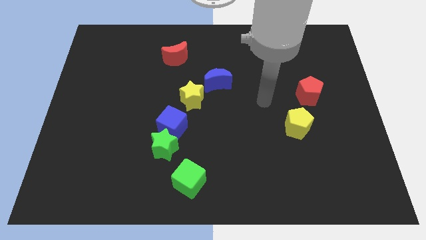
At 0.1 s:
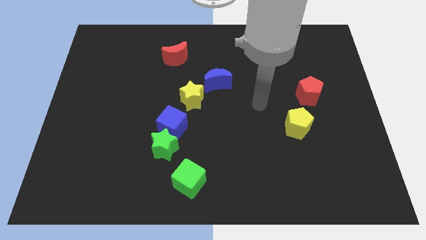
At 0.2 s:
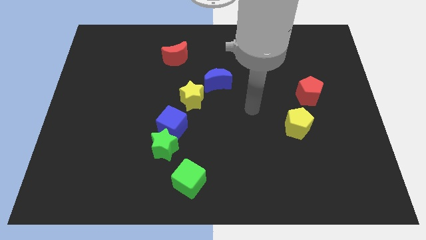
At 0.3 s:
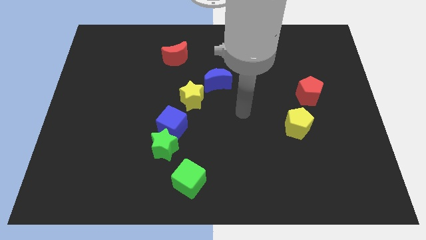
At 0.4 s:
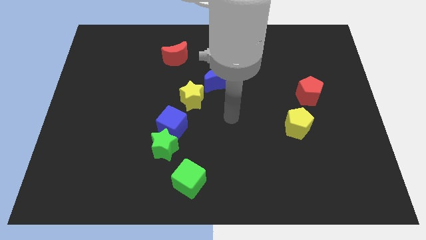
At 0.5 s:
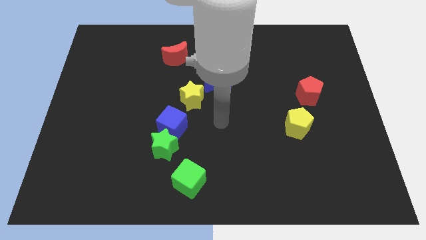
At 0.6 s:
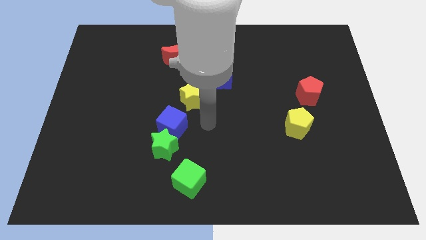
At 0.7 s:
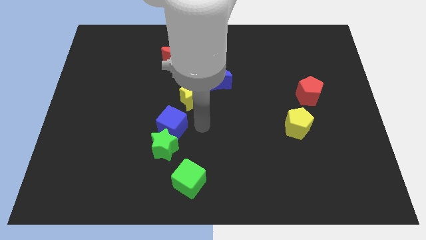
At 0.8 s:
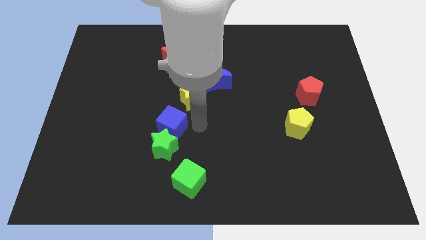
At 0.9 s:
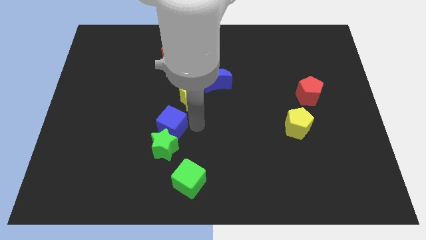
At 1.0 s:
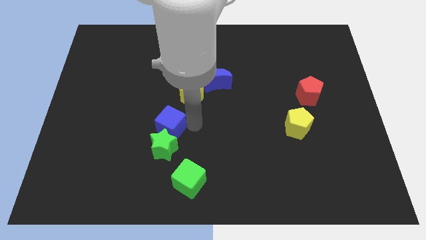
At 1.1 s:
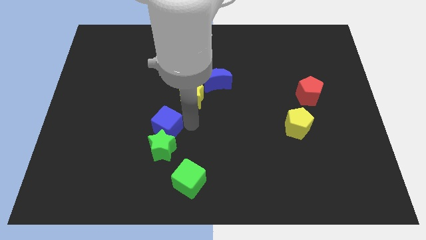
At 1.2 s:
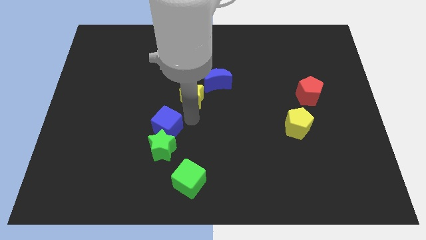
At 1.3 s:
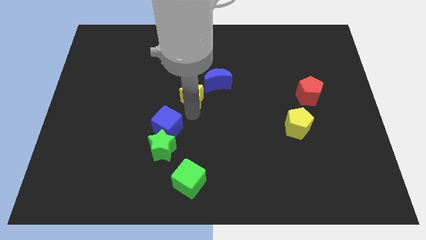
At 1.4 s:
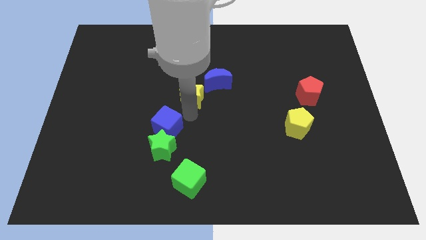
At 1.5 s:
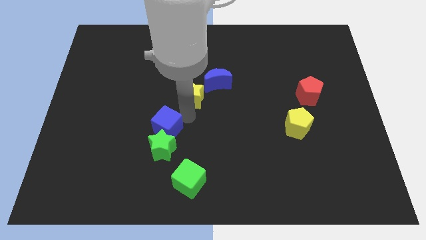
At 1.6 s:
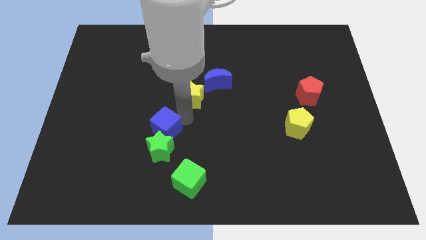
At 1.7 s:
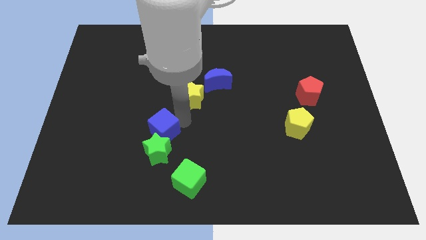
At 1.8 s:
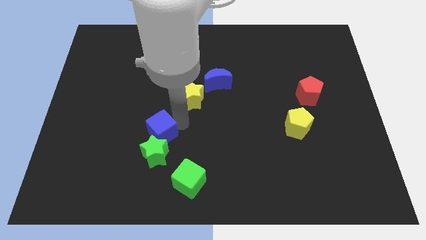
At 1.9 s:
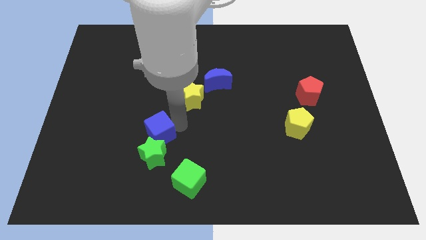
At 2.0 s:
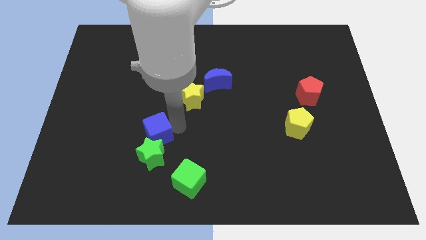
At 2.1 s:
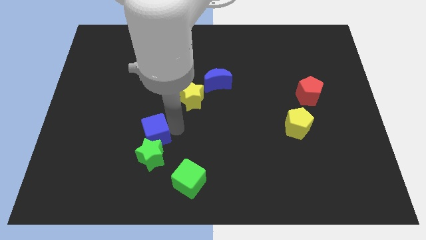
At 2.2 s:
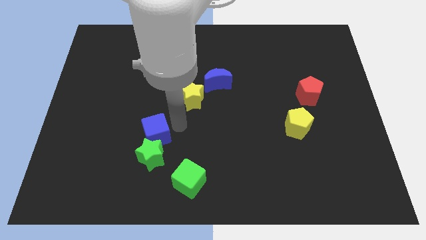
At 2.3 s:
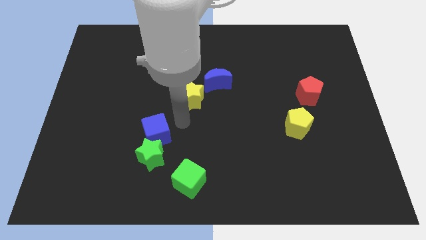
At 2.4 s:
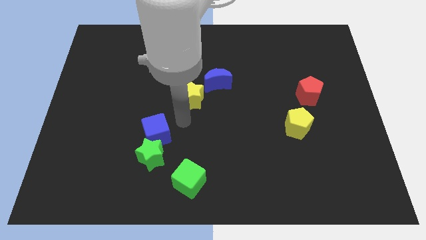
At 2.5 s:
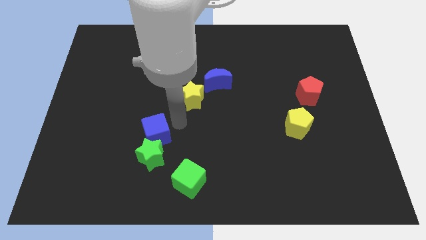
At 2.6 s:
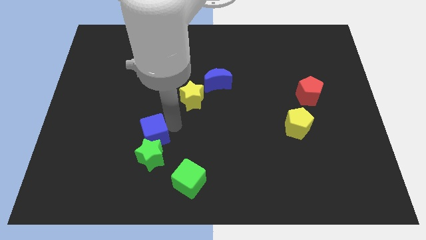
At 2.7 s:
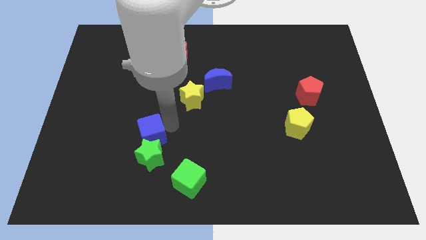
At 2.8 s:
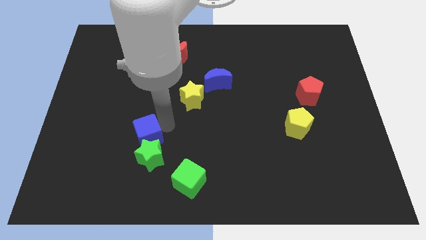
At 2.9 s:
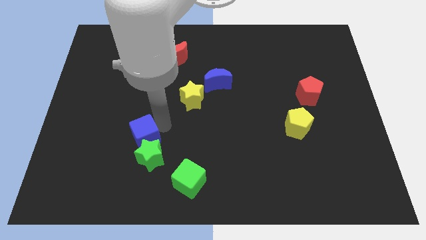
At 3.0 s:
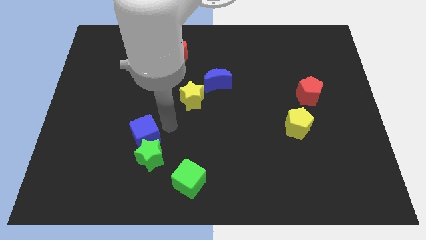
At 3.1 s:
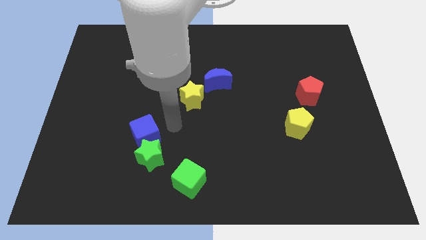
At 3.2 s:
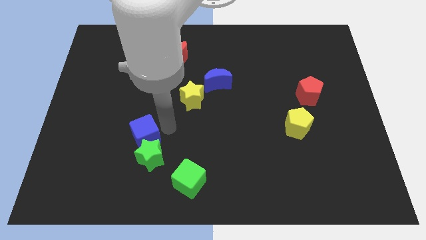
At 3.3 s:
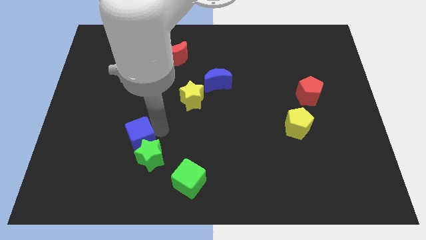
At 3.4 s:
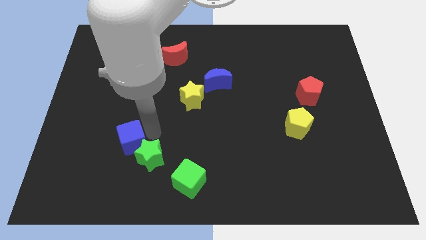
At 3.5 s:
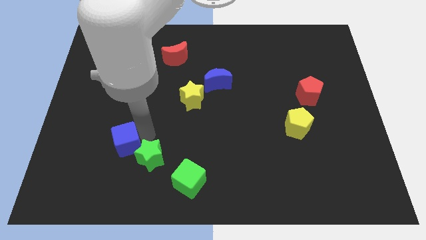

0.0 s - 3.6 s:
pull the blue cube apart from the green star and yellow star

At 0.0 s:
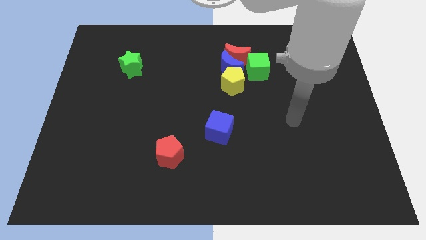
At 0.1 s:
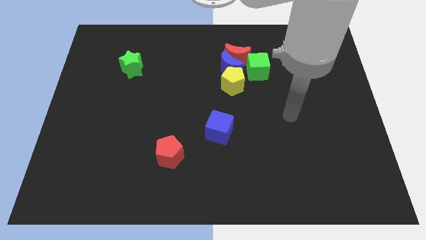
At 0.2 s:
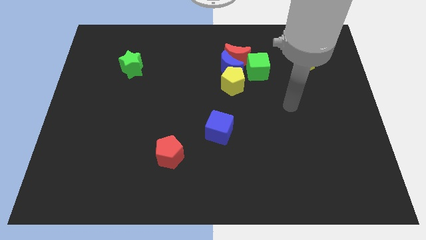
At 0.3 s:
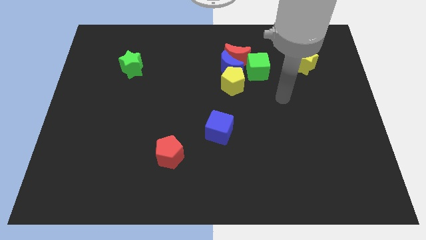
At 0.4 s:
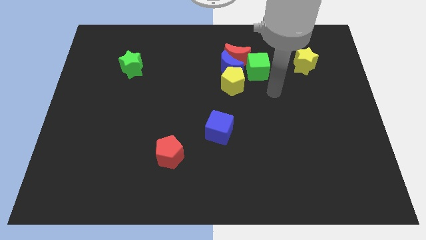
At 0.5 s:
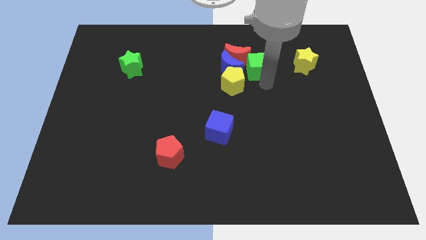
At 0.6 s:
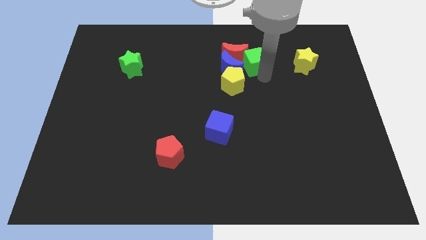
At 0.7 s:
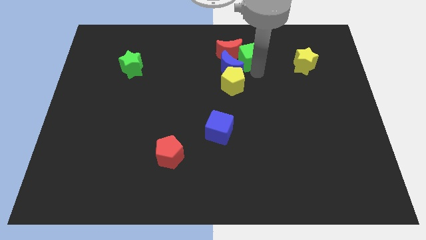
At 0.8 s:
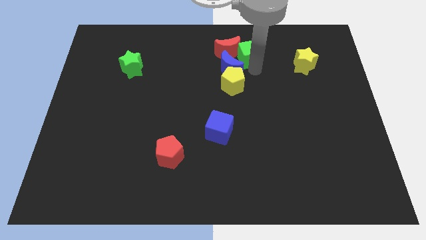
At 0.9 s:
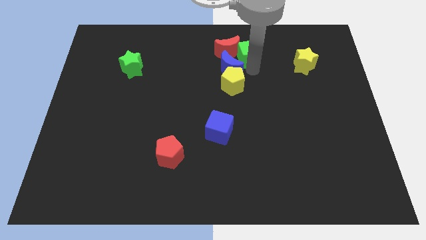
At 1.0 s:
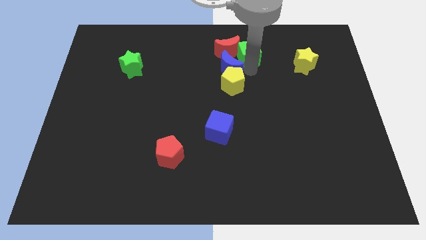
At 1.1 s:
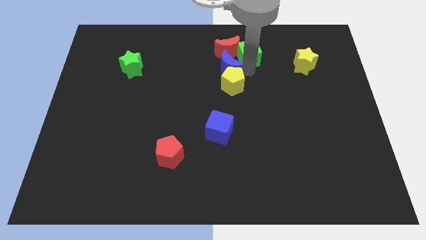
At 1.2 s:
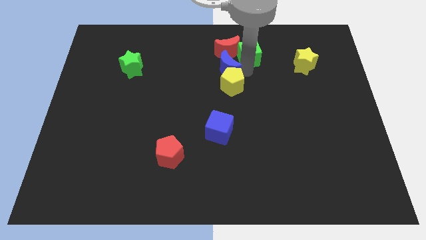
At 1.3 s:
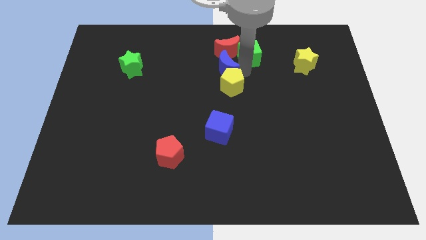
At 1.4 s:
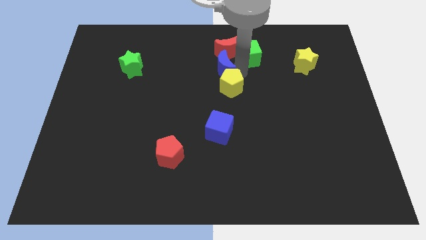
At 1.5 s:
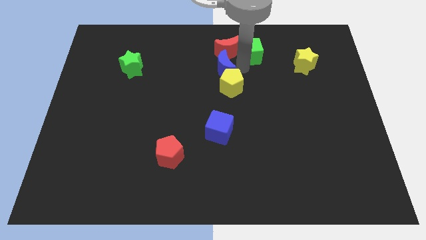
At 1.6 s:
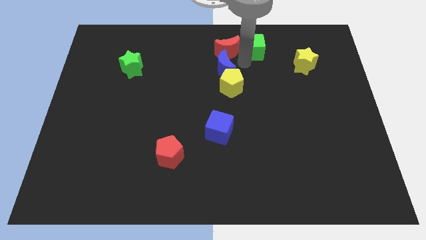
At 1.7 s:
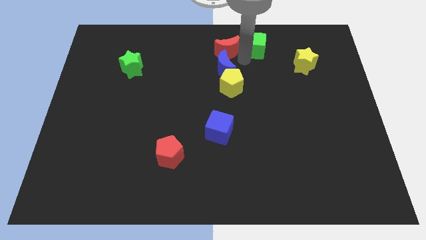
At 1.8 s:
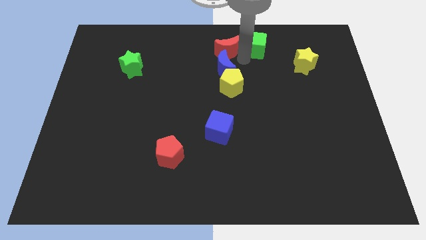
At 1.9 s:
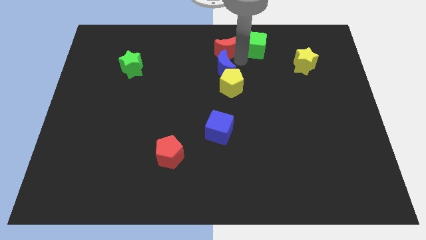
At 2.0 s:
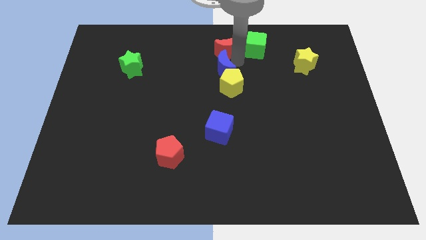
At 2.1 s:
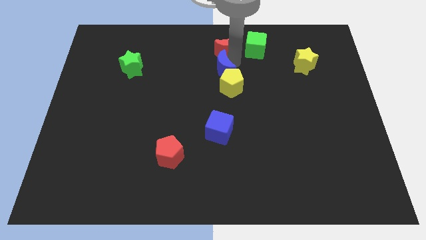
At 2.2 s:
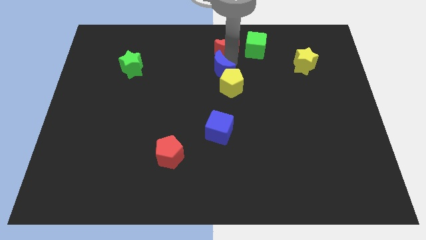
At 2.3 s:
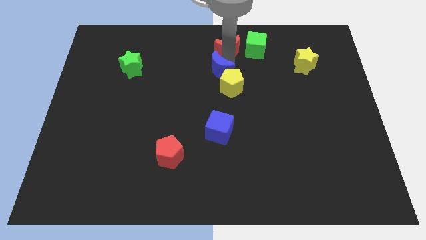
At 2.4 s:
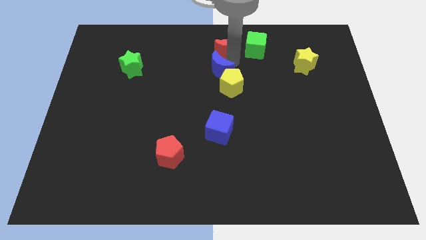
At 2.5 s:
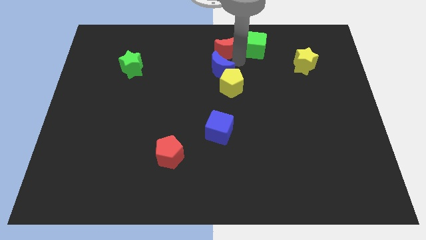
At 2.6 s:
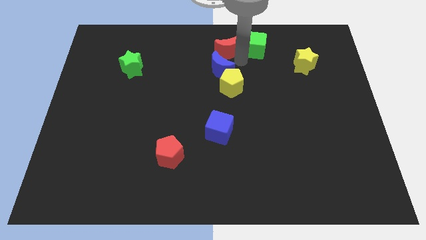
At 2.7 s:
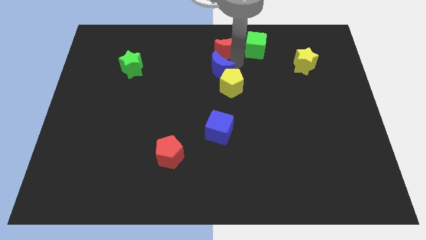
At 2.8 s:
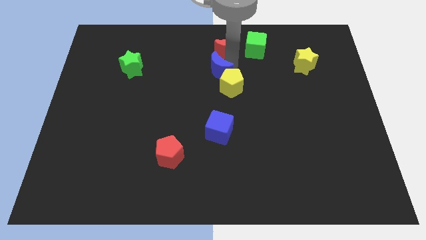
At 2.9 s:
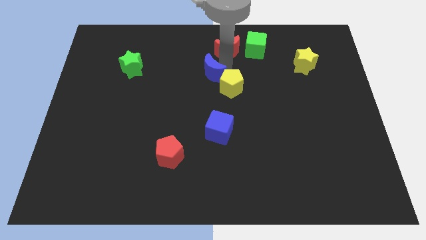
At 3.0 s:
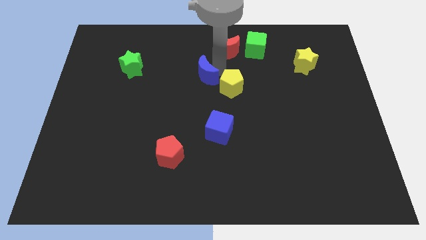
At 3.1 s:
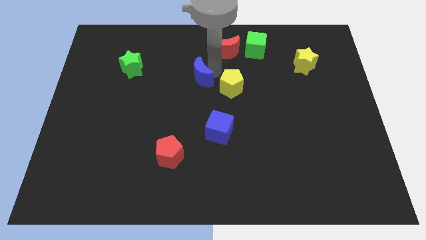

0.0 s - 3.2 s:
move the blue moon away from the red moon, yellow pentagon, and green cube

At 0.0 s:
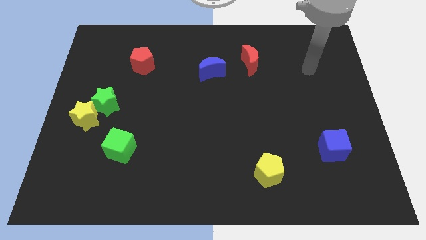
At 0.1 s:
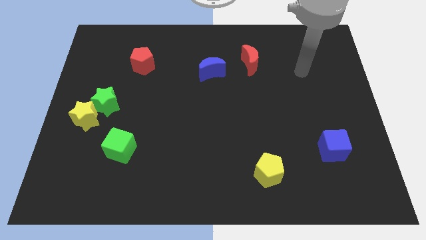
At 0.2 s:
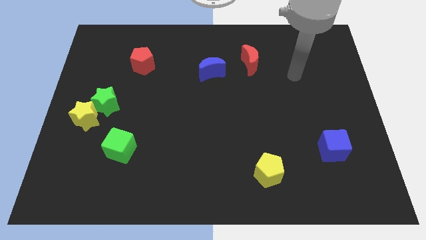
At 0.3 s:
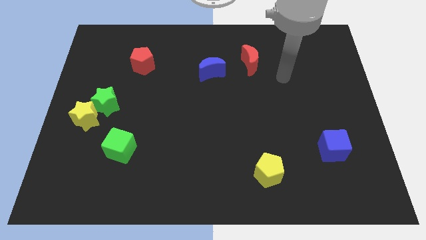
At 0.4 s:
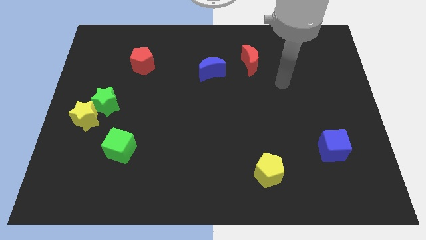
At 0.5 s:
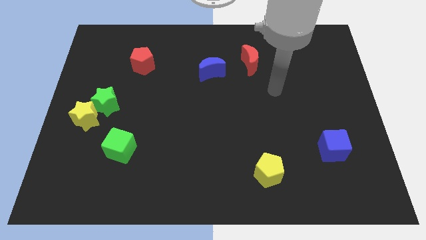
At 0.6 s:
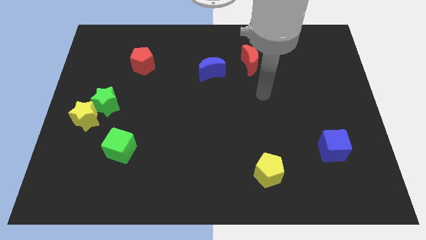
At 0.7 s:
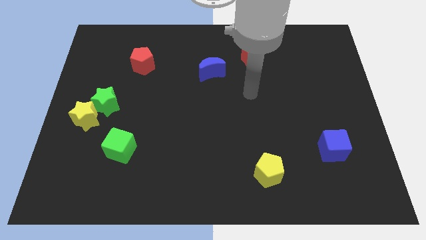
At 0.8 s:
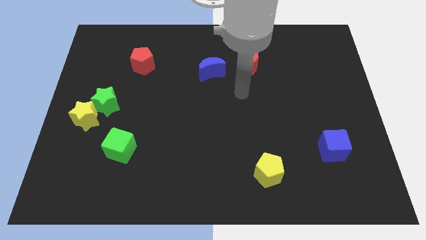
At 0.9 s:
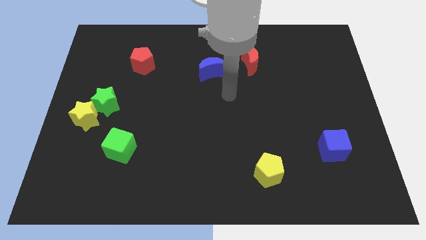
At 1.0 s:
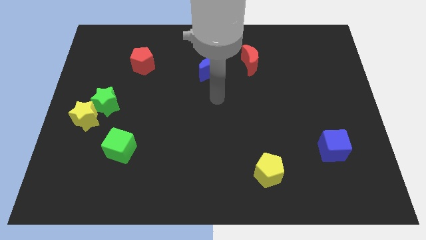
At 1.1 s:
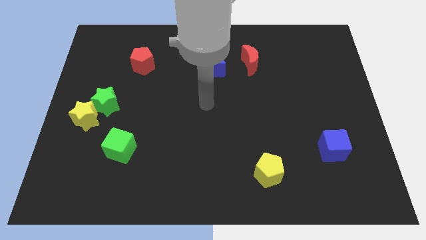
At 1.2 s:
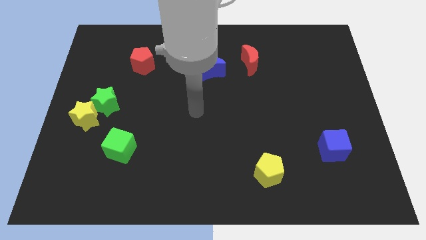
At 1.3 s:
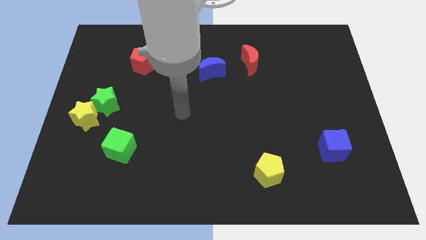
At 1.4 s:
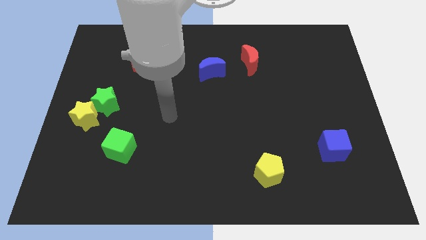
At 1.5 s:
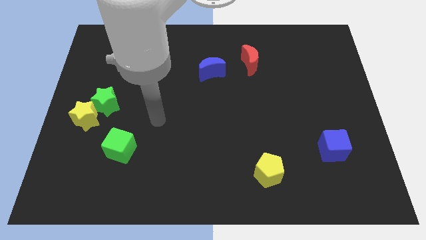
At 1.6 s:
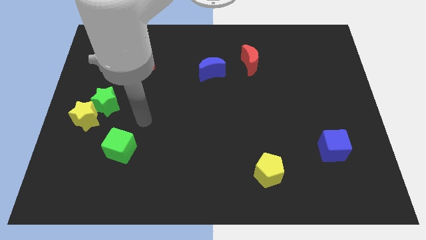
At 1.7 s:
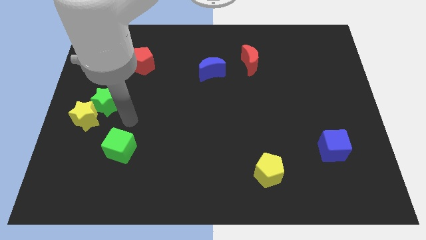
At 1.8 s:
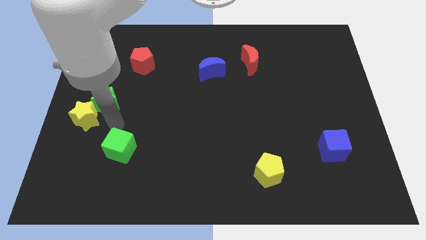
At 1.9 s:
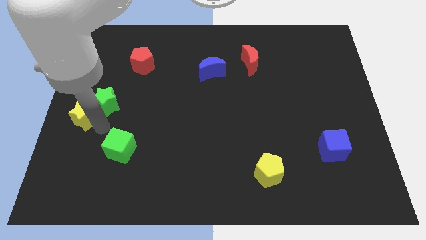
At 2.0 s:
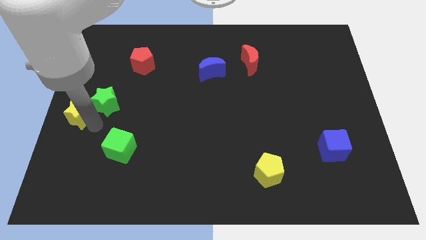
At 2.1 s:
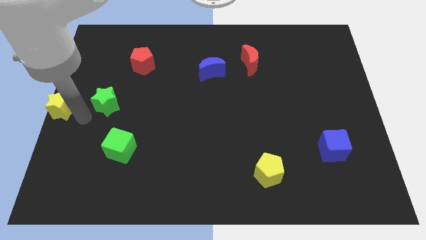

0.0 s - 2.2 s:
pull the green star apart from the yellow star

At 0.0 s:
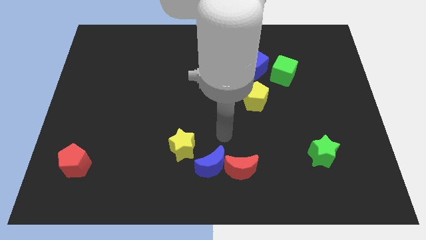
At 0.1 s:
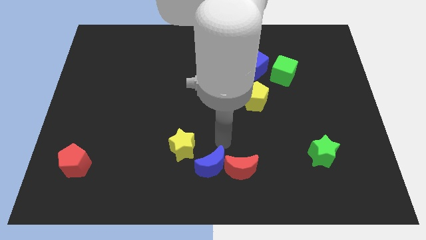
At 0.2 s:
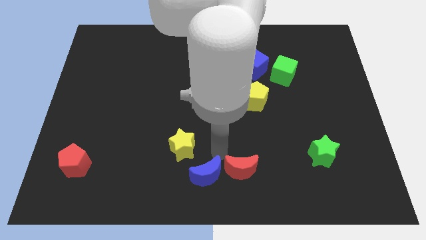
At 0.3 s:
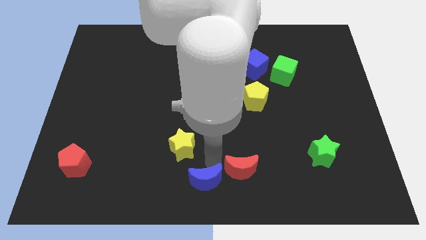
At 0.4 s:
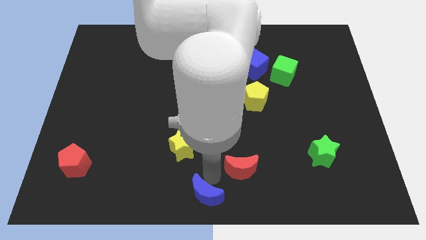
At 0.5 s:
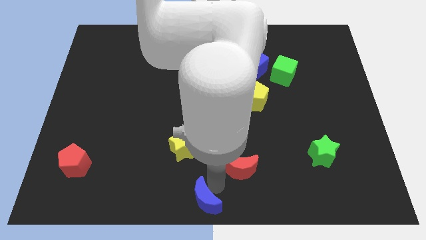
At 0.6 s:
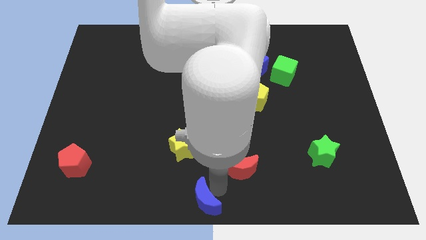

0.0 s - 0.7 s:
separate the red moon from the blue moon
